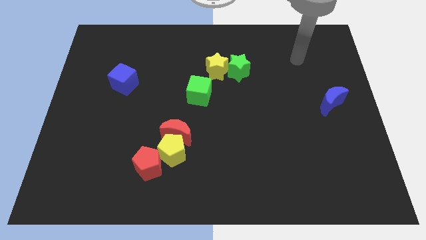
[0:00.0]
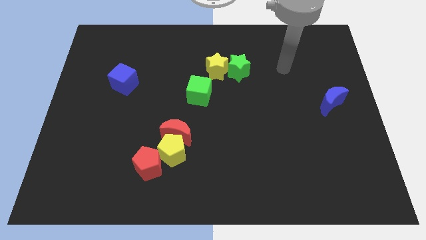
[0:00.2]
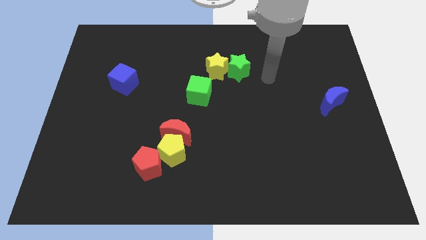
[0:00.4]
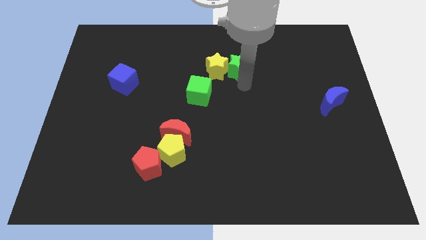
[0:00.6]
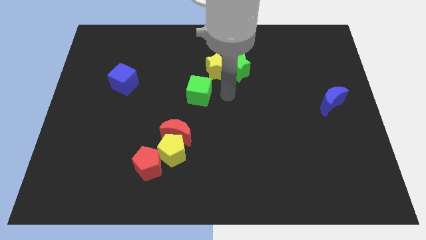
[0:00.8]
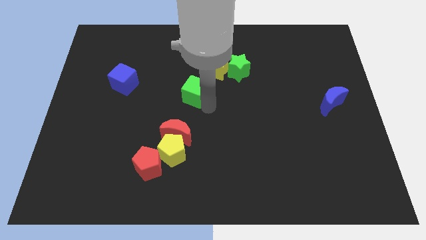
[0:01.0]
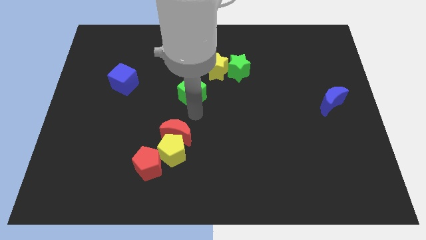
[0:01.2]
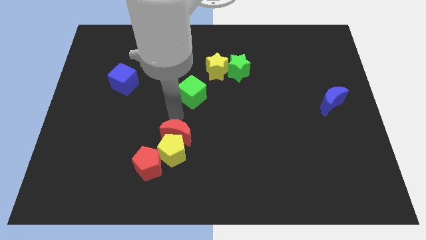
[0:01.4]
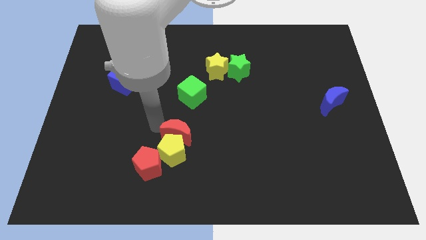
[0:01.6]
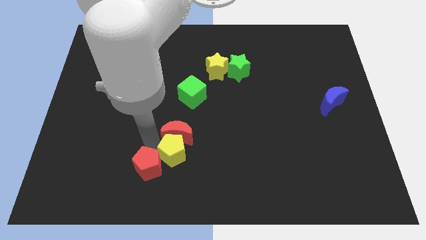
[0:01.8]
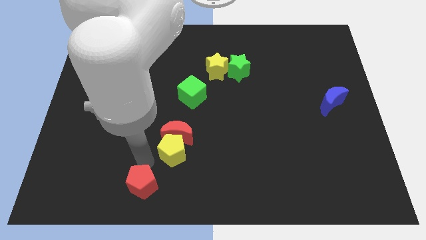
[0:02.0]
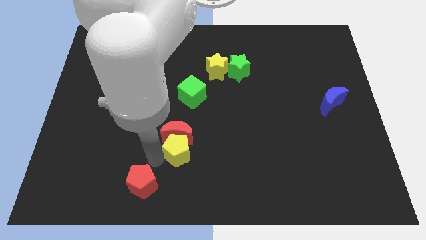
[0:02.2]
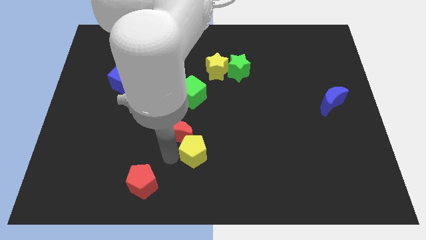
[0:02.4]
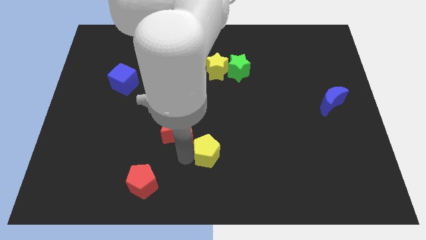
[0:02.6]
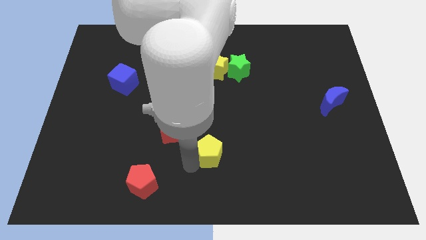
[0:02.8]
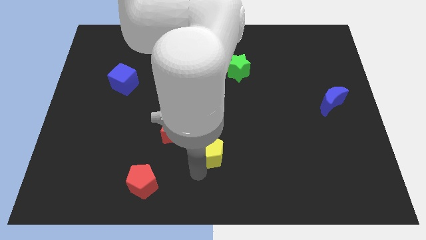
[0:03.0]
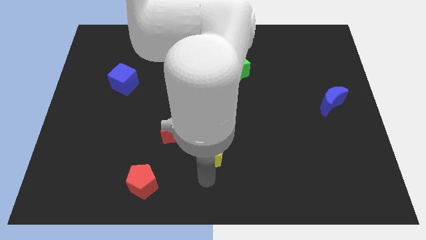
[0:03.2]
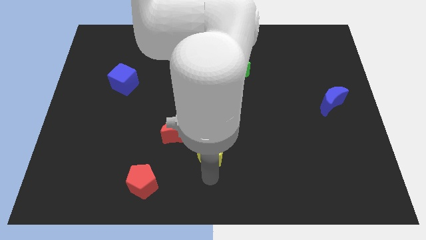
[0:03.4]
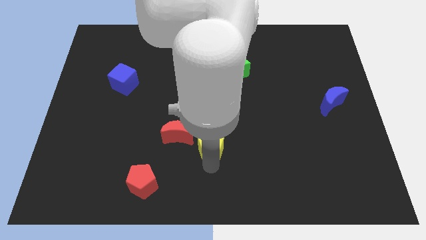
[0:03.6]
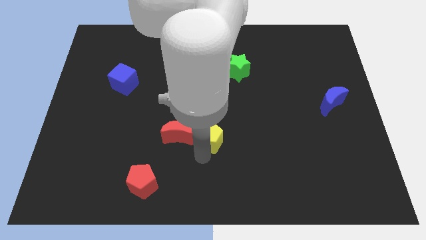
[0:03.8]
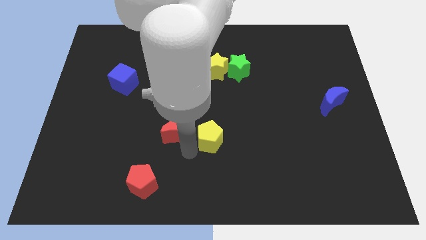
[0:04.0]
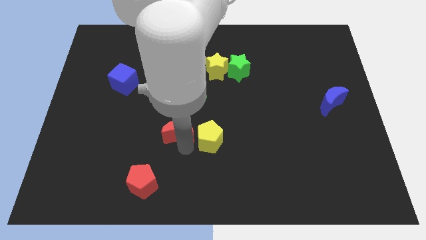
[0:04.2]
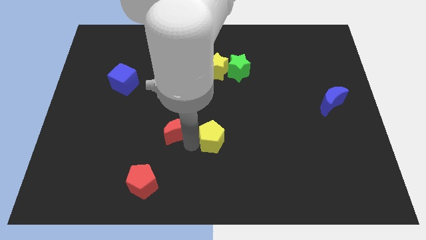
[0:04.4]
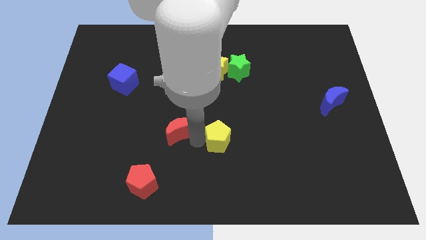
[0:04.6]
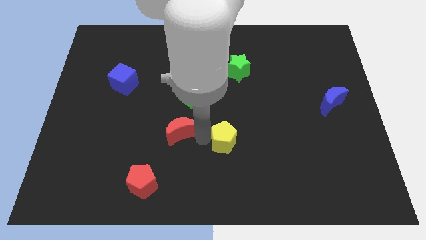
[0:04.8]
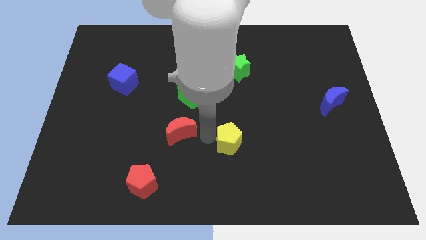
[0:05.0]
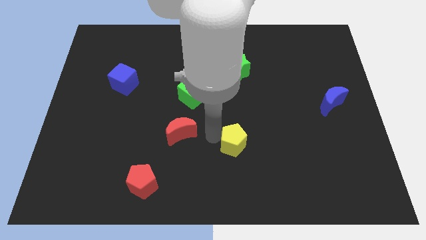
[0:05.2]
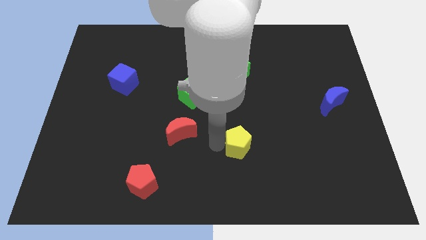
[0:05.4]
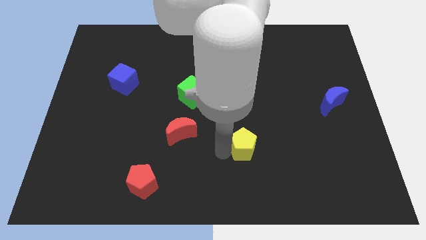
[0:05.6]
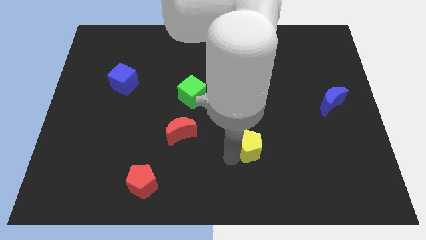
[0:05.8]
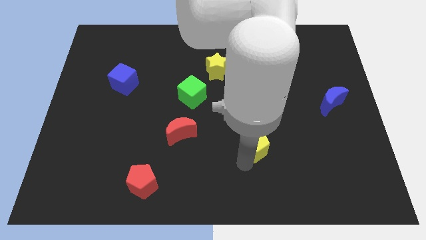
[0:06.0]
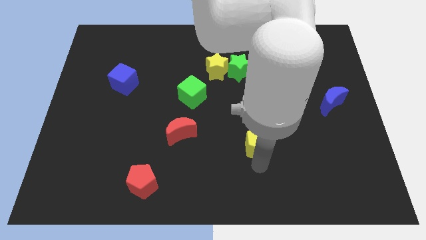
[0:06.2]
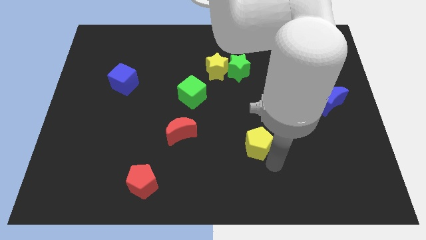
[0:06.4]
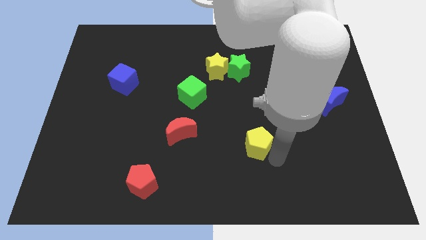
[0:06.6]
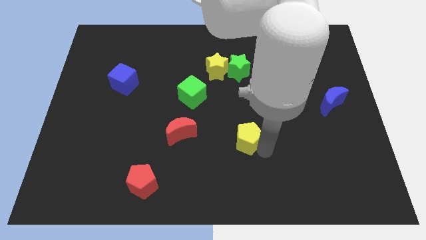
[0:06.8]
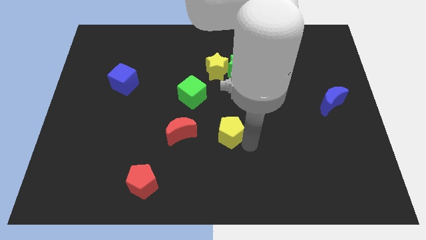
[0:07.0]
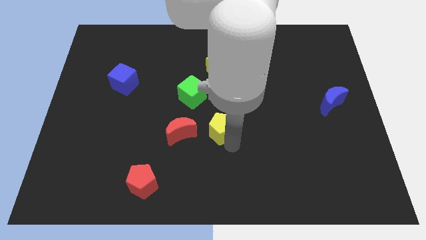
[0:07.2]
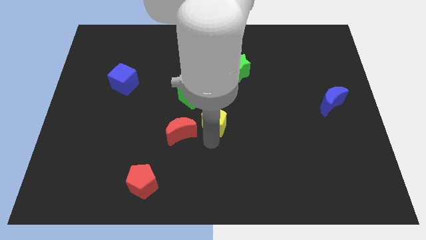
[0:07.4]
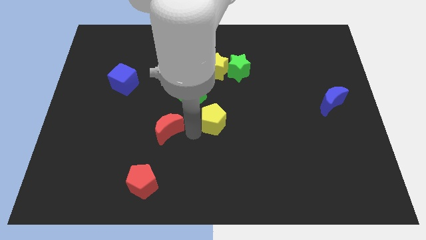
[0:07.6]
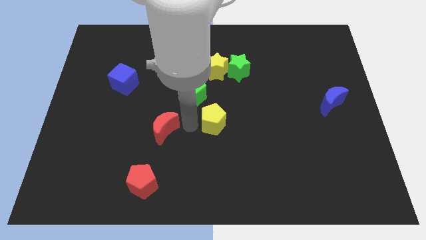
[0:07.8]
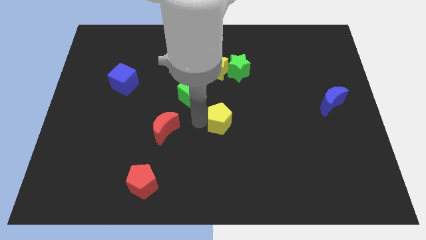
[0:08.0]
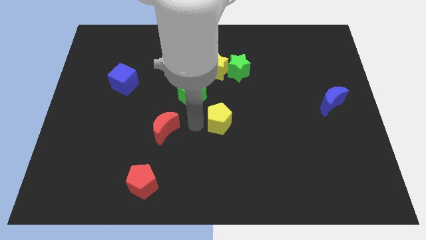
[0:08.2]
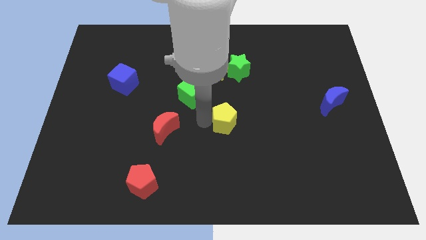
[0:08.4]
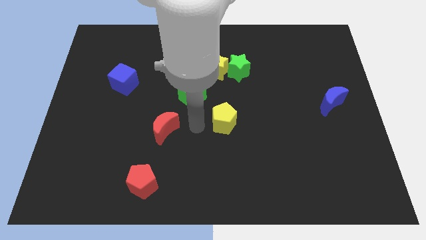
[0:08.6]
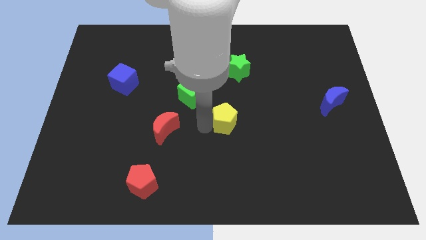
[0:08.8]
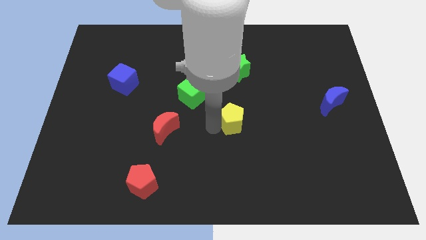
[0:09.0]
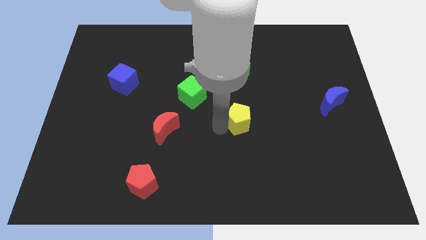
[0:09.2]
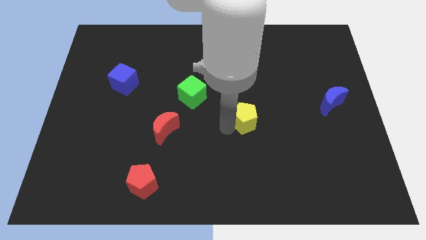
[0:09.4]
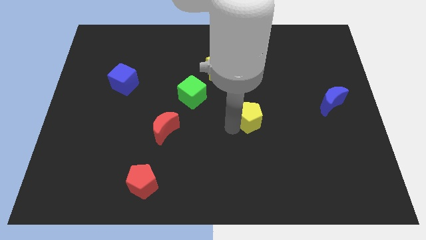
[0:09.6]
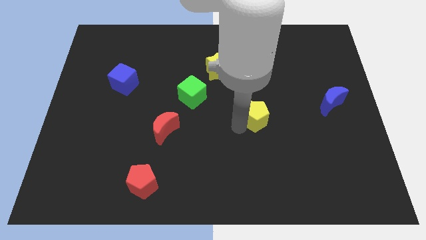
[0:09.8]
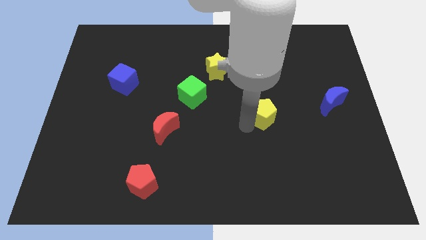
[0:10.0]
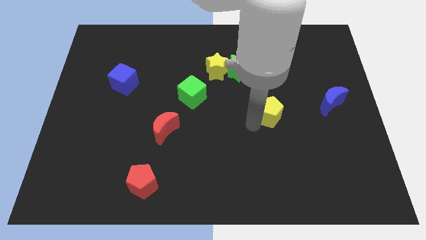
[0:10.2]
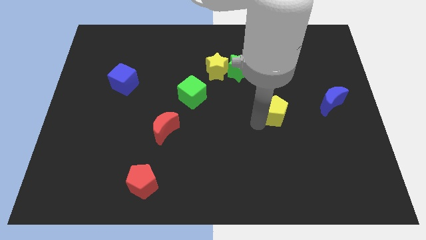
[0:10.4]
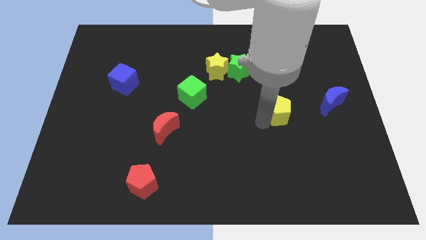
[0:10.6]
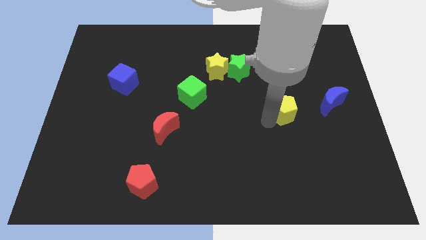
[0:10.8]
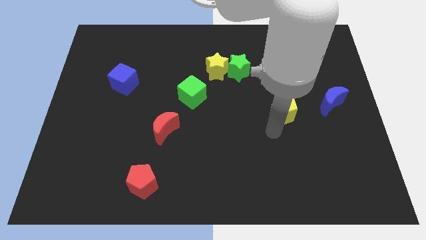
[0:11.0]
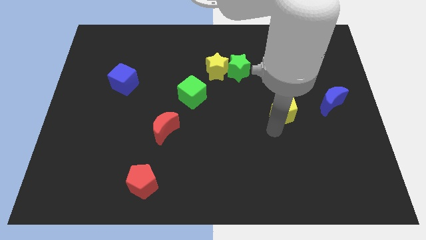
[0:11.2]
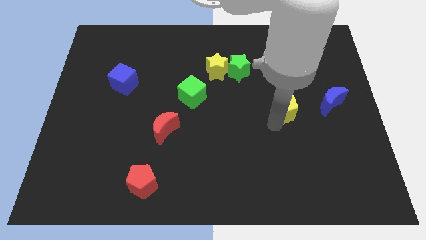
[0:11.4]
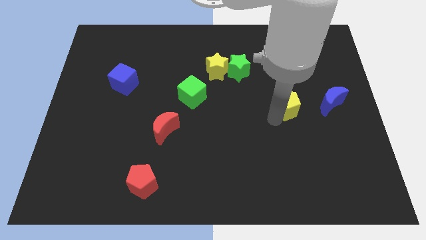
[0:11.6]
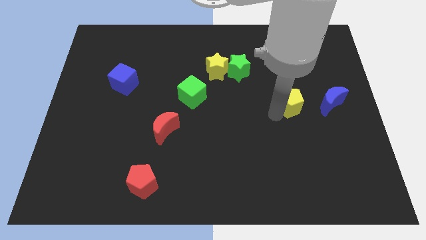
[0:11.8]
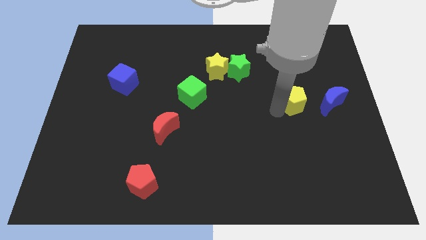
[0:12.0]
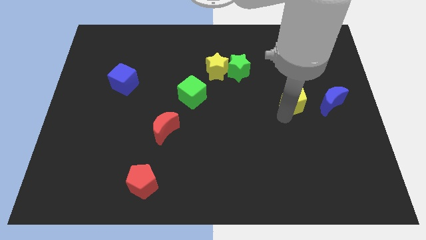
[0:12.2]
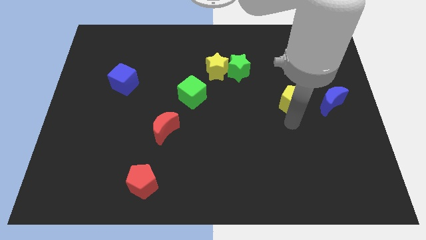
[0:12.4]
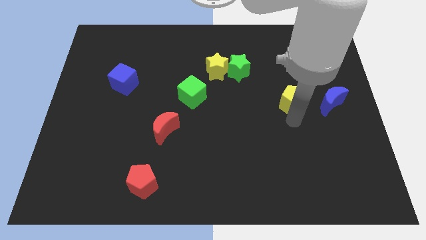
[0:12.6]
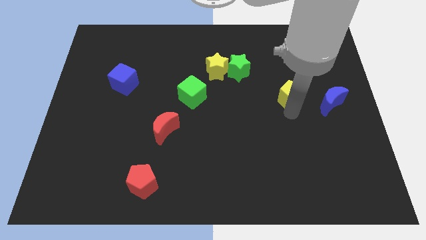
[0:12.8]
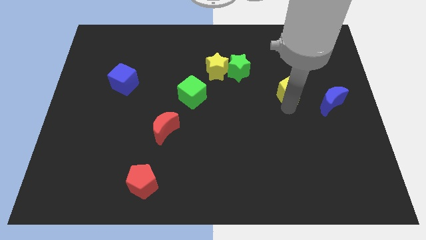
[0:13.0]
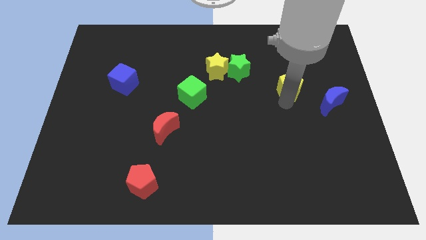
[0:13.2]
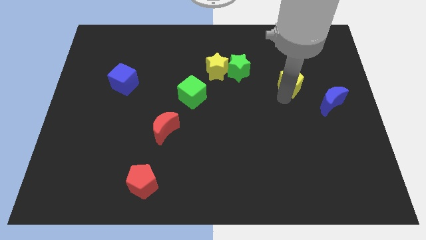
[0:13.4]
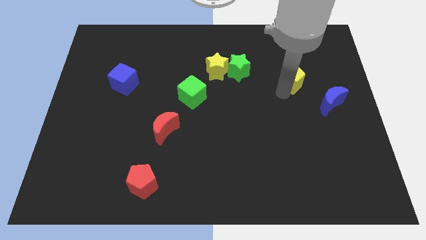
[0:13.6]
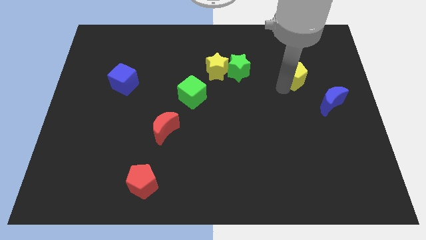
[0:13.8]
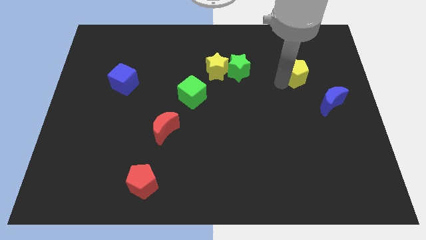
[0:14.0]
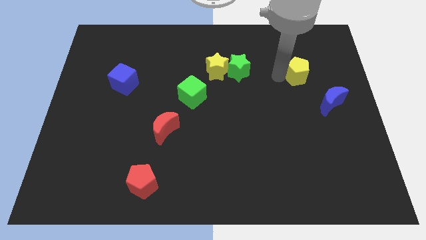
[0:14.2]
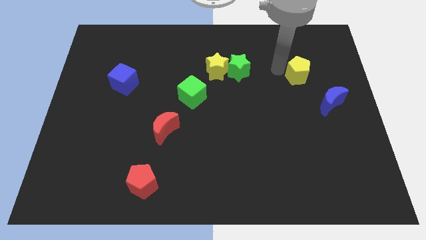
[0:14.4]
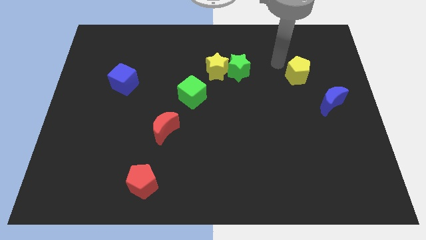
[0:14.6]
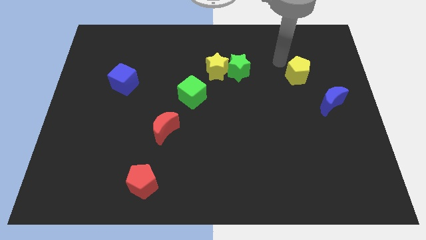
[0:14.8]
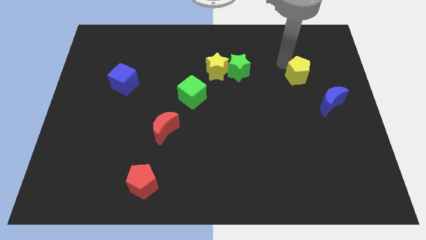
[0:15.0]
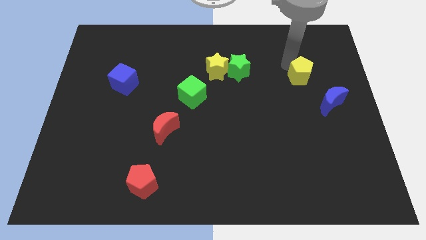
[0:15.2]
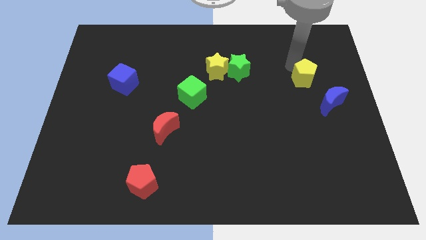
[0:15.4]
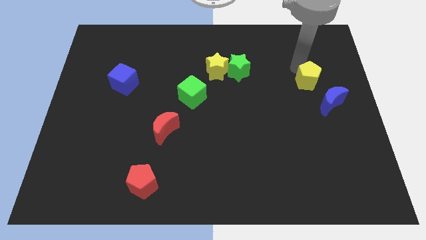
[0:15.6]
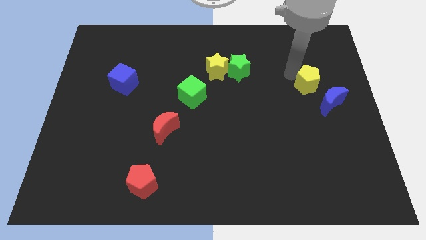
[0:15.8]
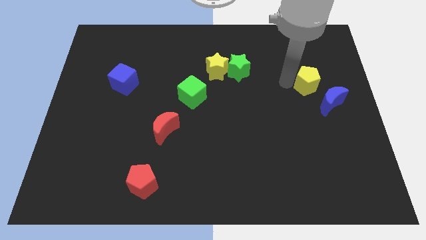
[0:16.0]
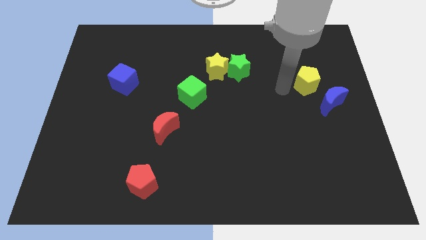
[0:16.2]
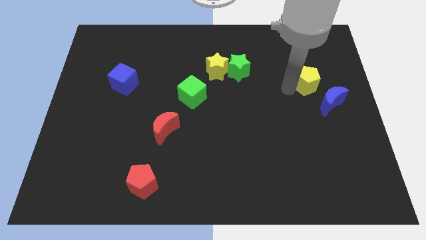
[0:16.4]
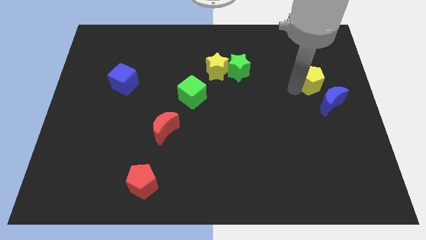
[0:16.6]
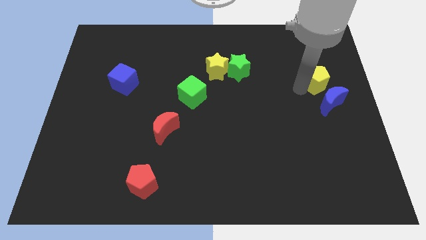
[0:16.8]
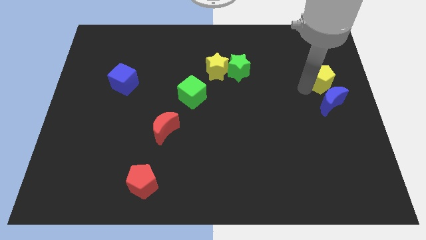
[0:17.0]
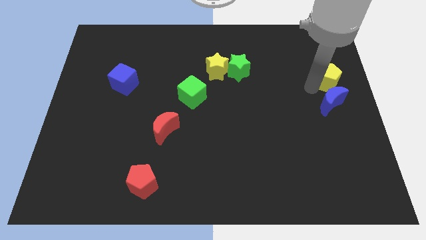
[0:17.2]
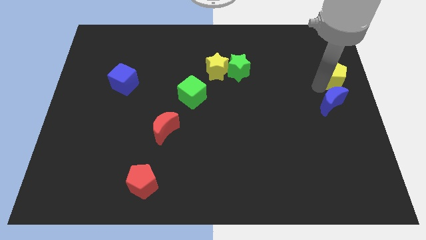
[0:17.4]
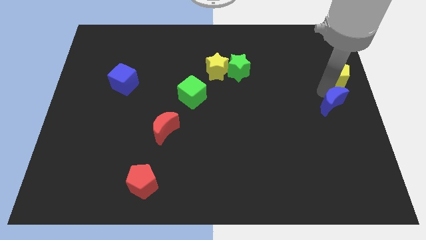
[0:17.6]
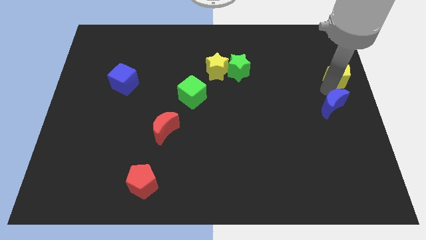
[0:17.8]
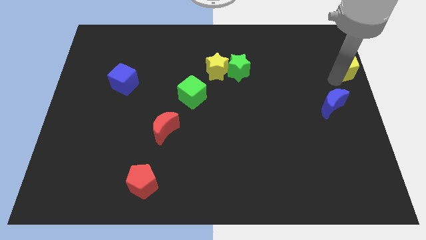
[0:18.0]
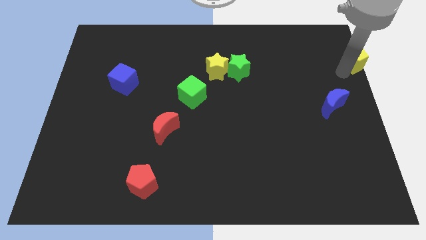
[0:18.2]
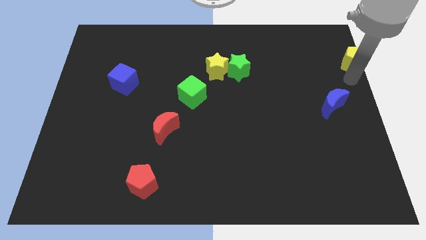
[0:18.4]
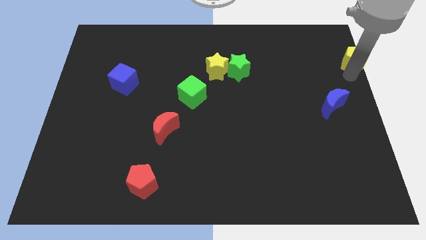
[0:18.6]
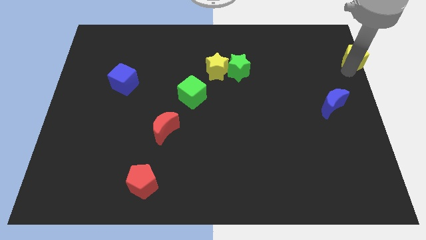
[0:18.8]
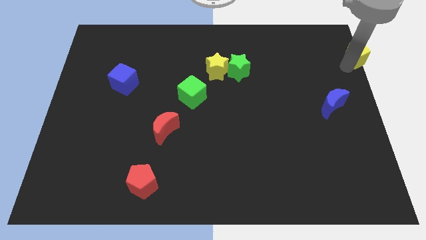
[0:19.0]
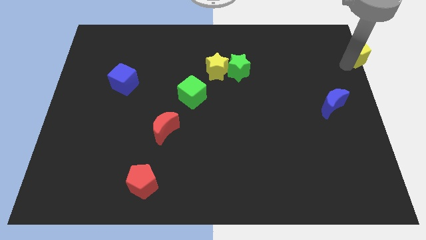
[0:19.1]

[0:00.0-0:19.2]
put the yellow pentagon to the top right
